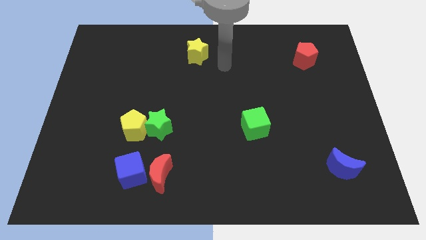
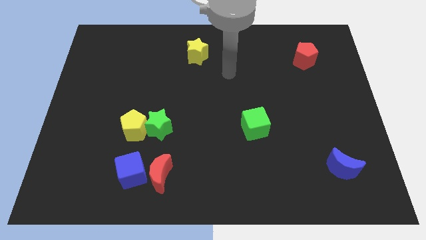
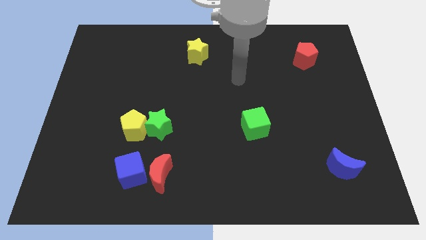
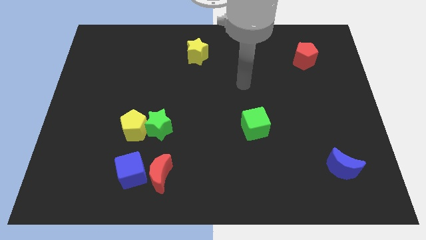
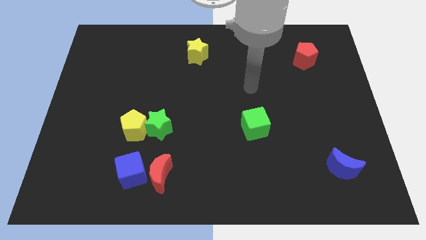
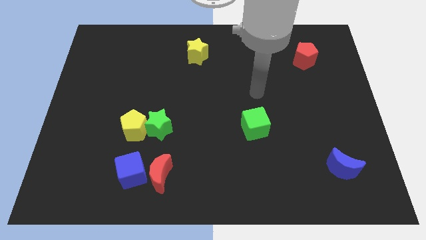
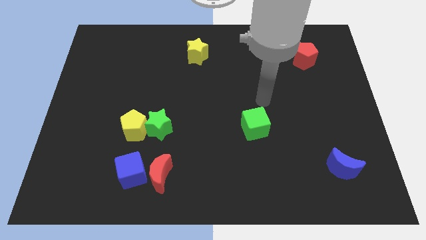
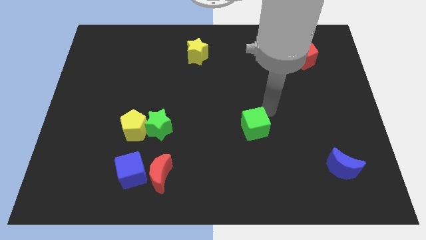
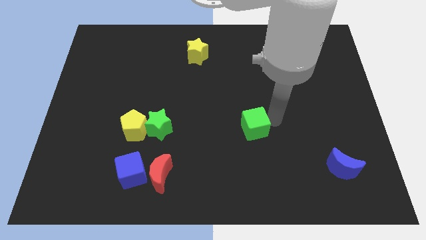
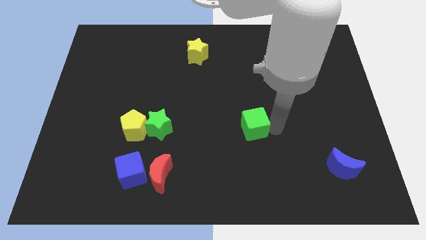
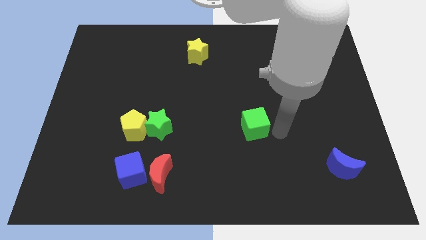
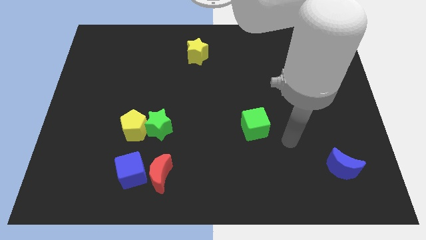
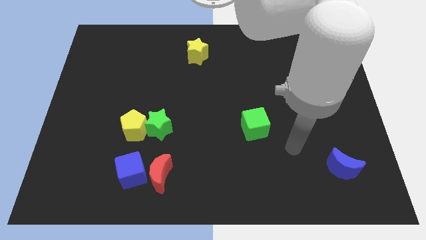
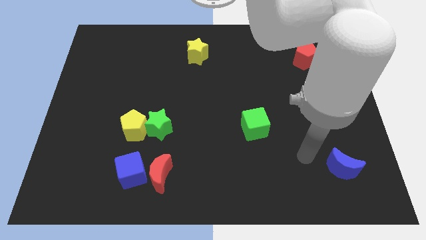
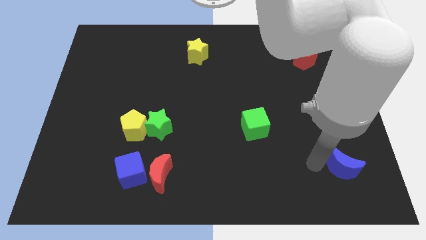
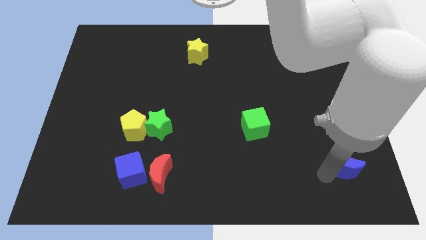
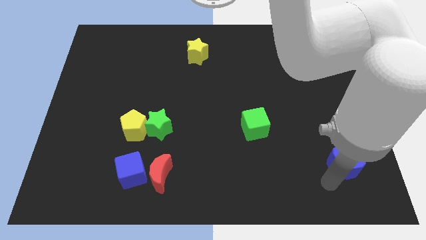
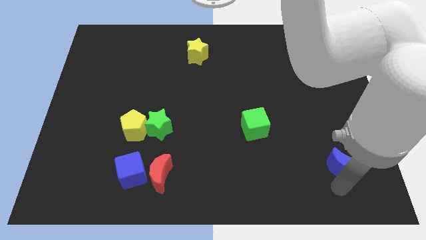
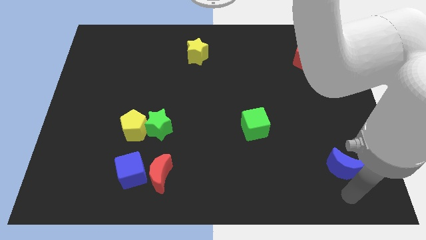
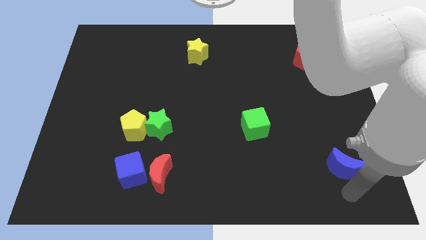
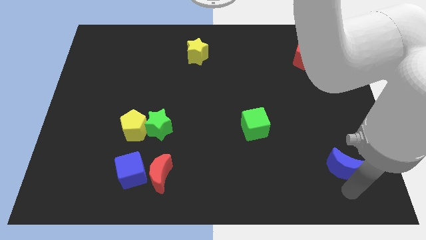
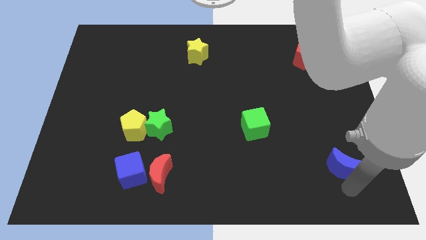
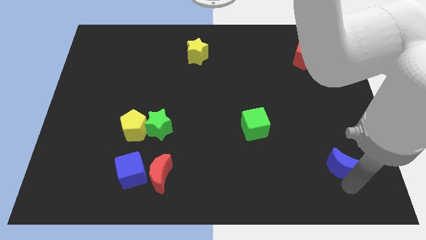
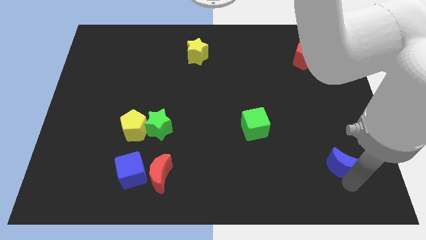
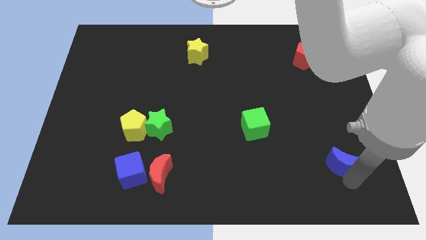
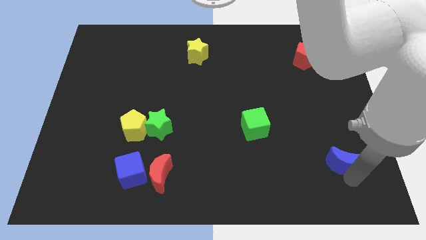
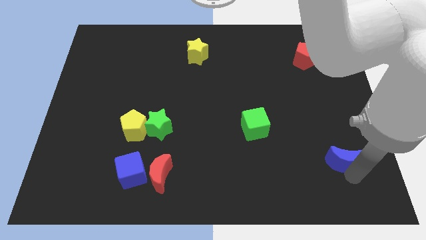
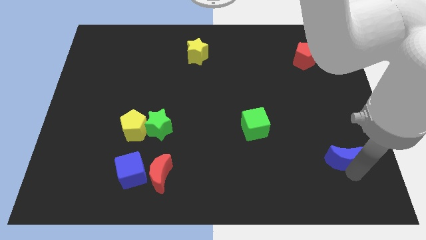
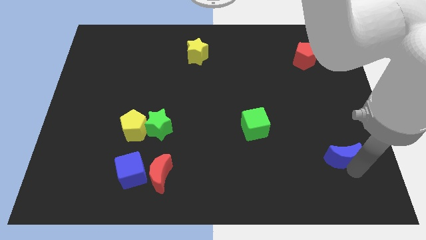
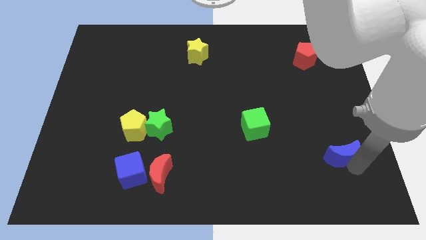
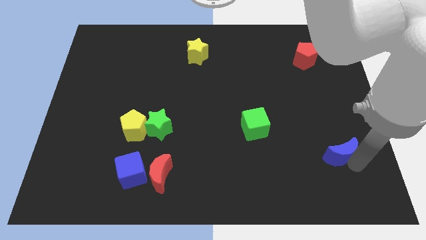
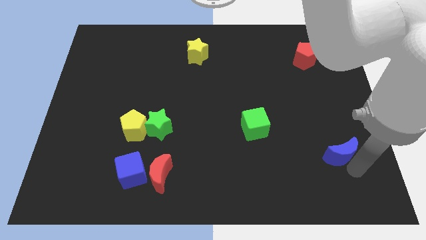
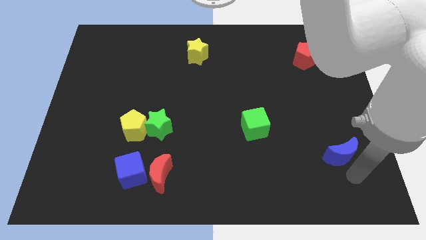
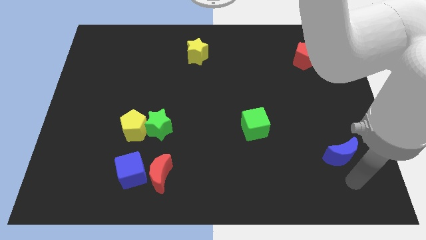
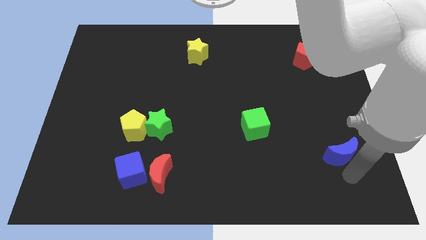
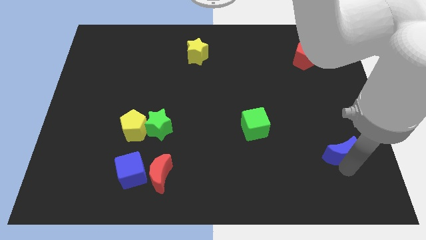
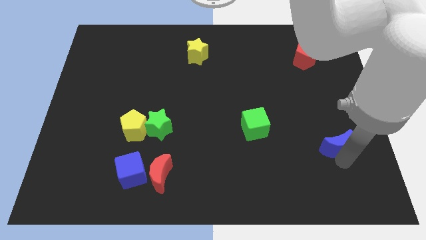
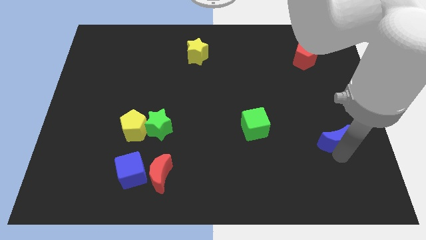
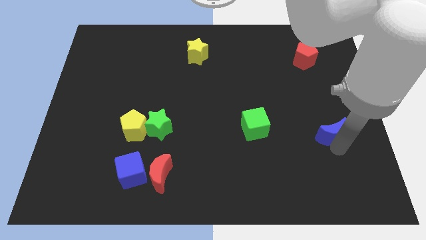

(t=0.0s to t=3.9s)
push the blue moon somewhat up

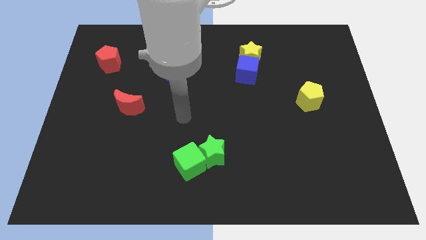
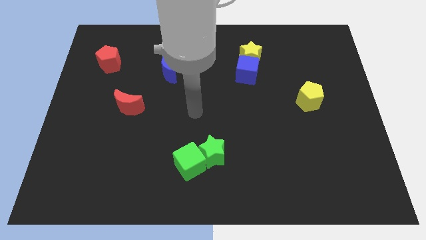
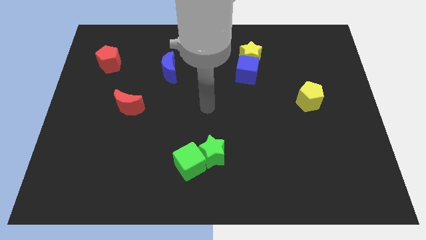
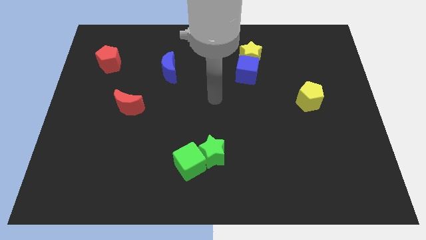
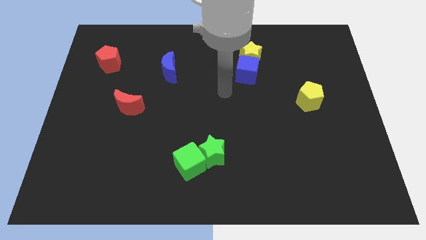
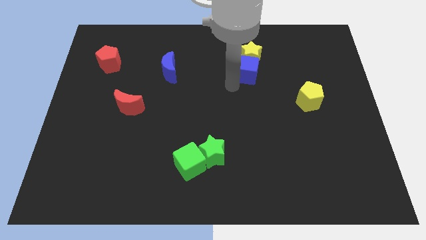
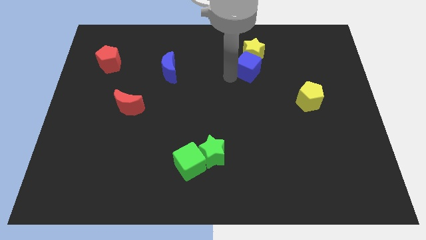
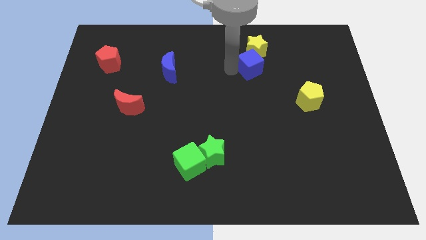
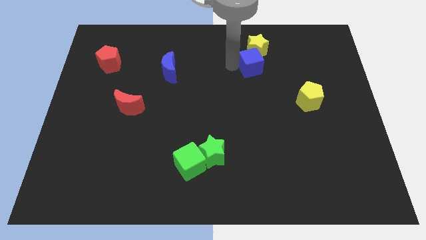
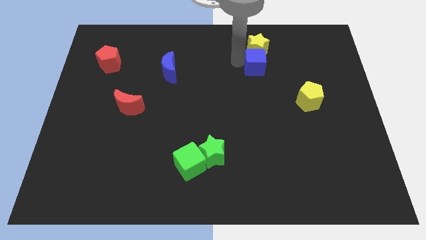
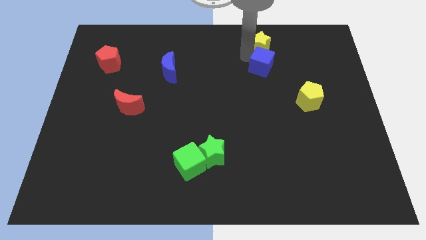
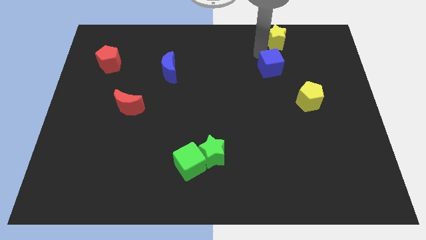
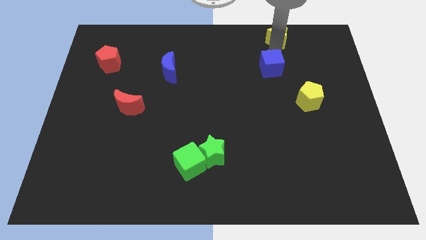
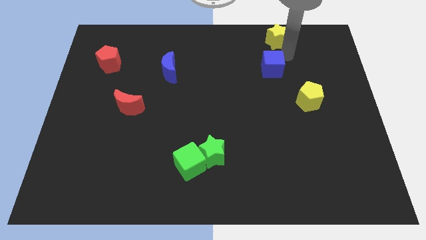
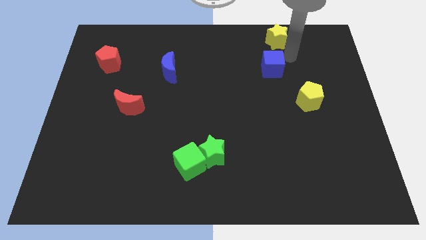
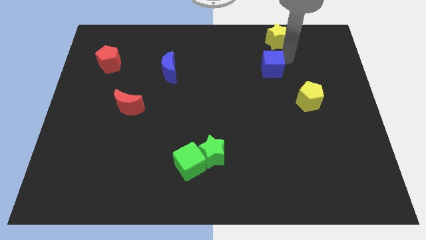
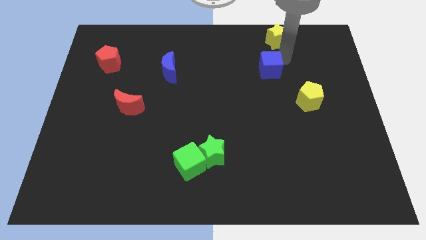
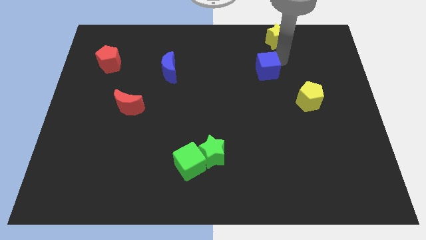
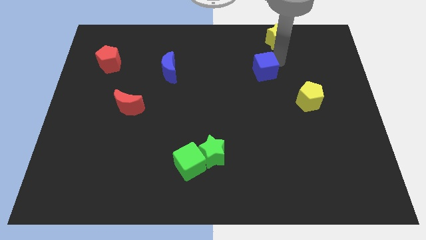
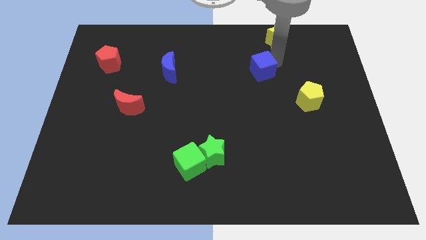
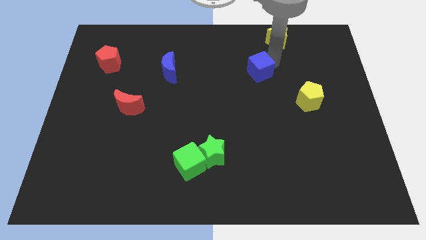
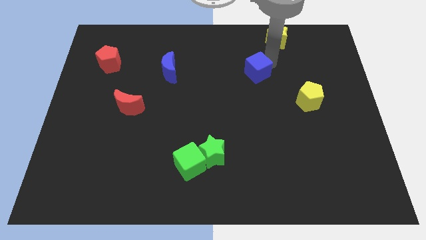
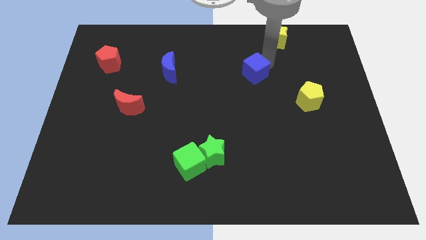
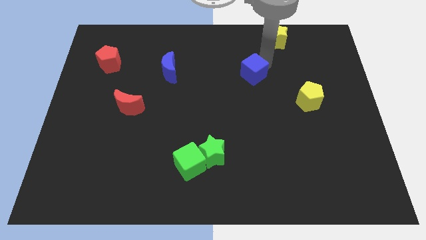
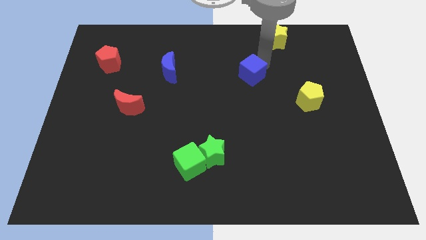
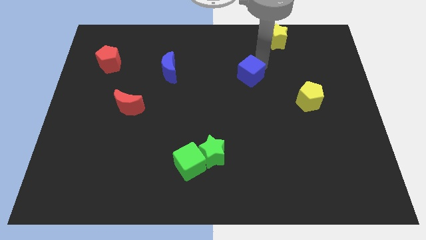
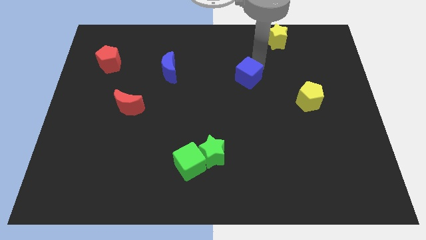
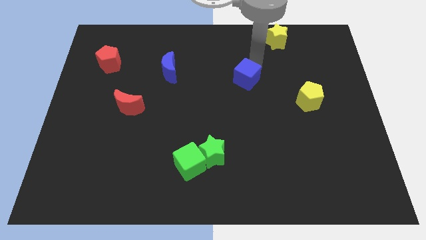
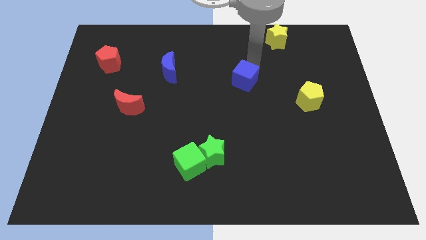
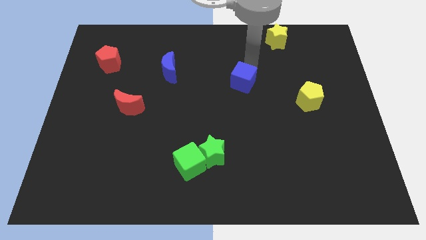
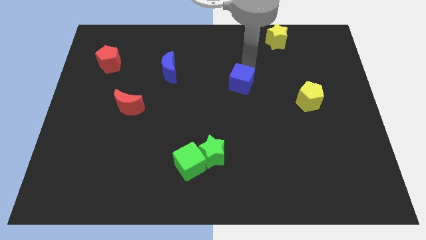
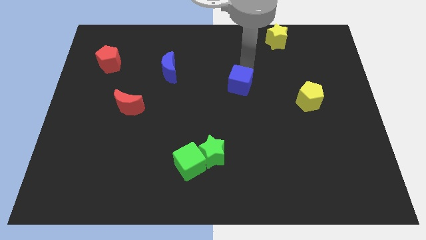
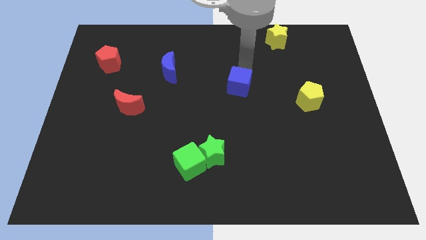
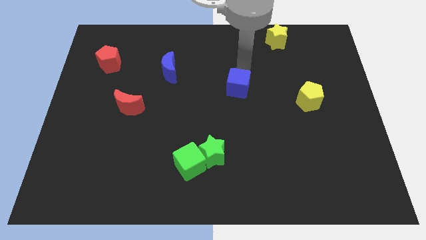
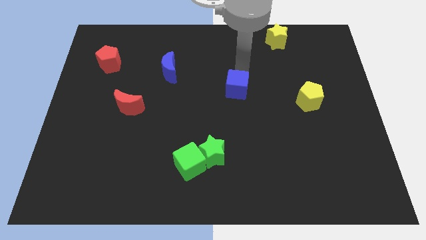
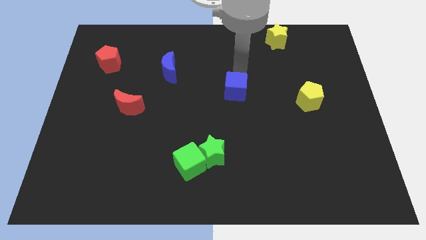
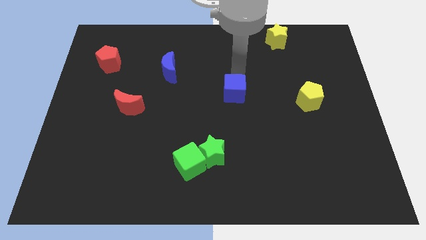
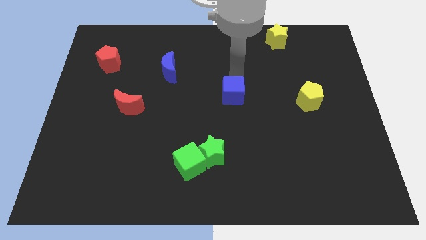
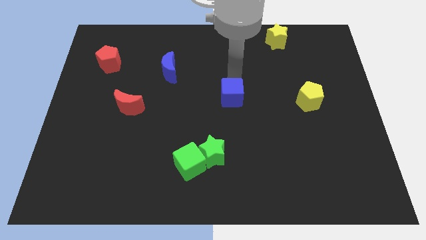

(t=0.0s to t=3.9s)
push the blue cube slightly downwards
